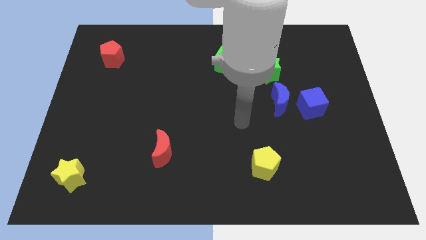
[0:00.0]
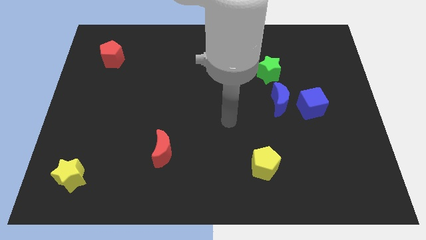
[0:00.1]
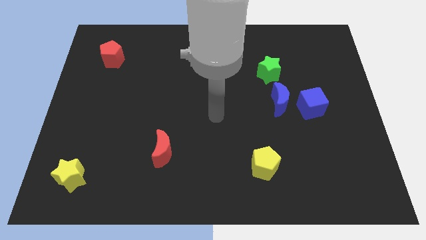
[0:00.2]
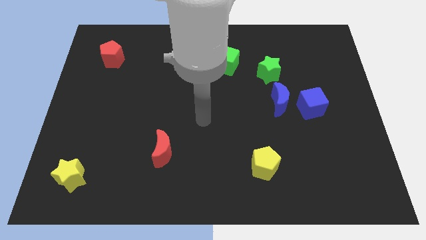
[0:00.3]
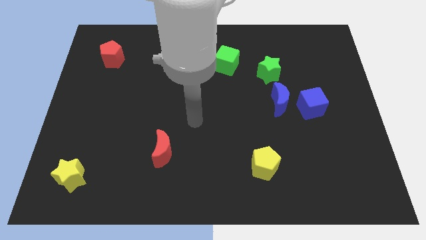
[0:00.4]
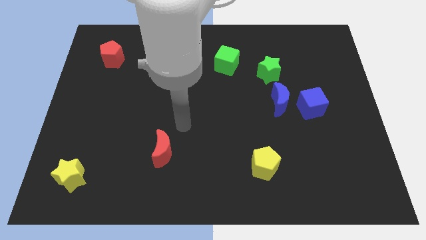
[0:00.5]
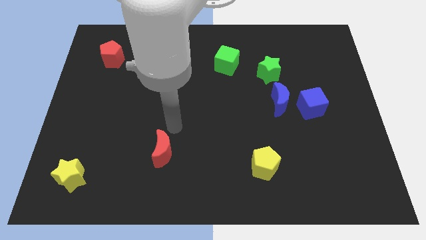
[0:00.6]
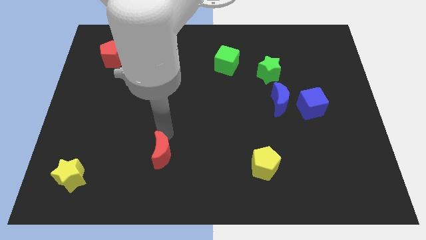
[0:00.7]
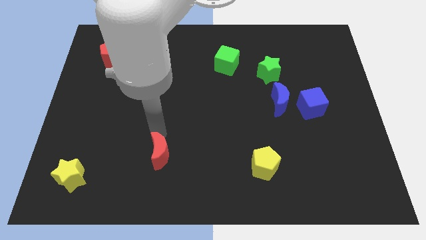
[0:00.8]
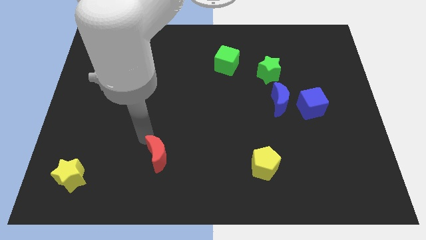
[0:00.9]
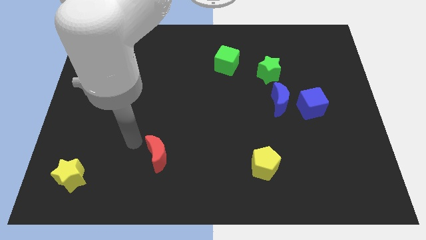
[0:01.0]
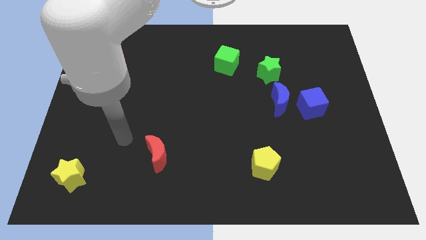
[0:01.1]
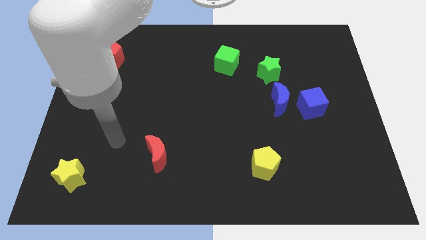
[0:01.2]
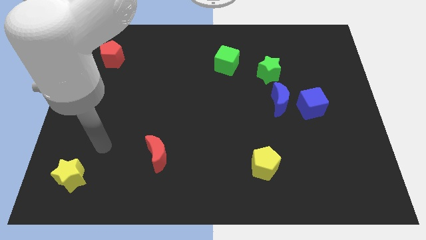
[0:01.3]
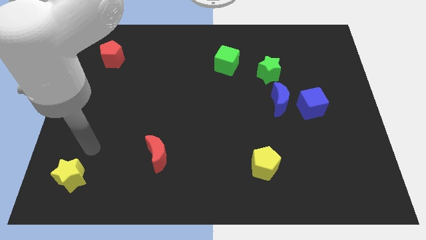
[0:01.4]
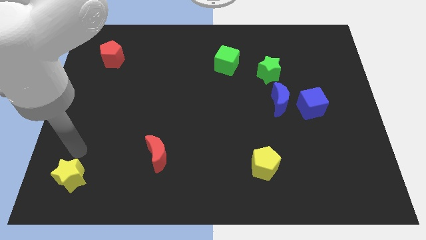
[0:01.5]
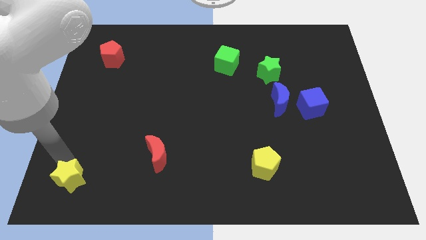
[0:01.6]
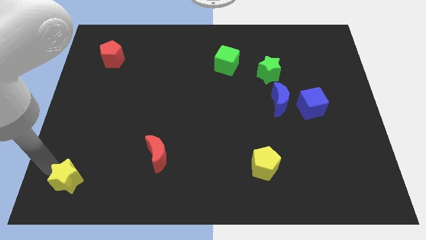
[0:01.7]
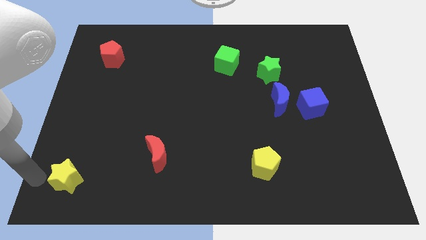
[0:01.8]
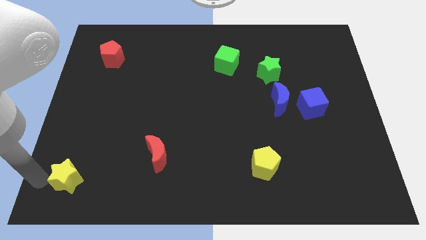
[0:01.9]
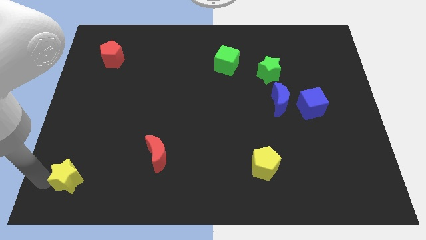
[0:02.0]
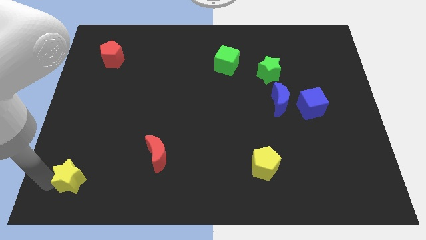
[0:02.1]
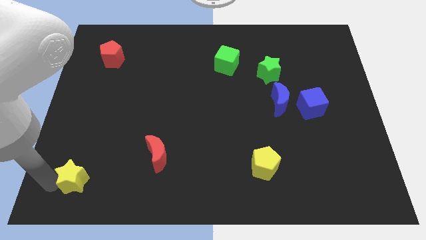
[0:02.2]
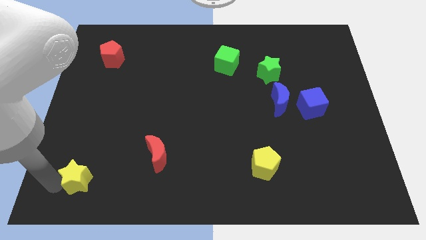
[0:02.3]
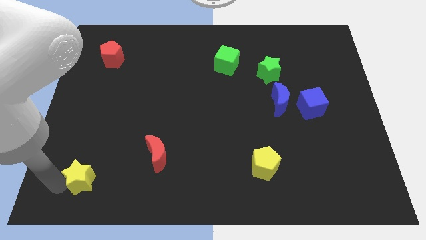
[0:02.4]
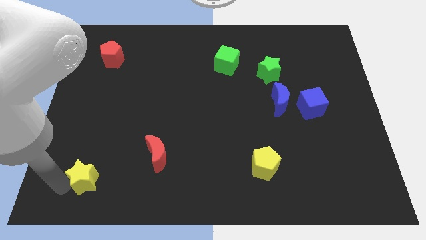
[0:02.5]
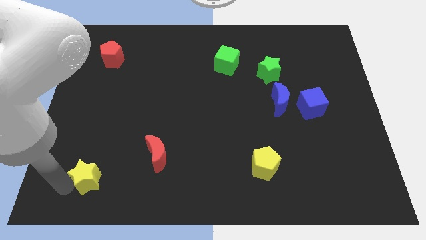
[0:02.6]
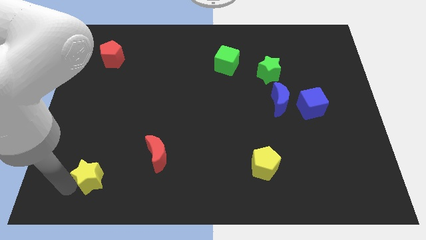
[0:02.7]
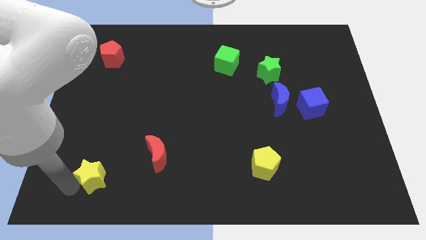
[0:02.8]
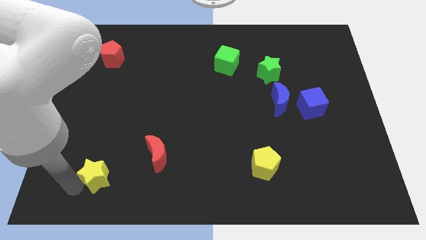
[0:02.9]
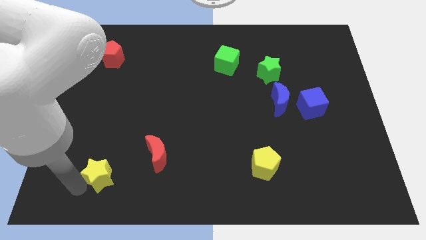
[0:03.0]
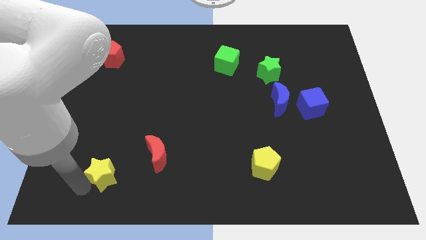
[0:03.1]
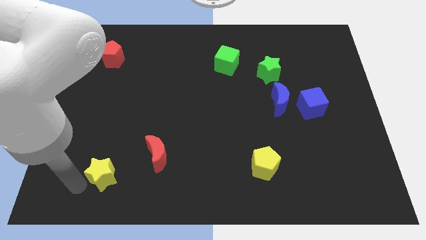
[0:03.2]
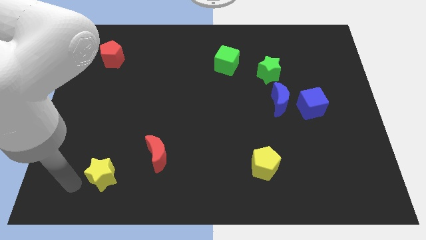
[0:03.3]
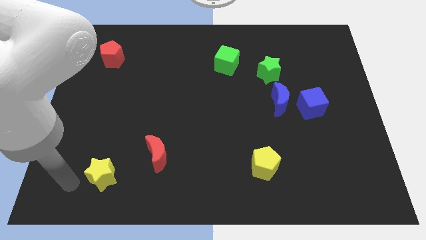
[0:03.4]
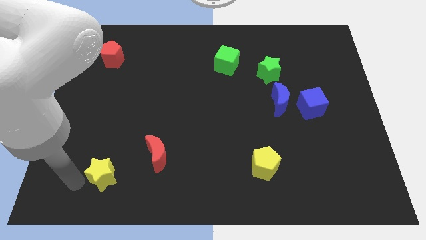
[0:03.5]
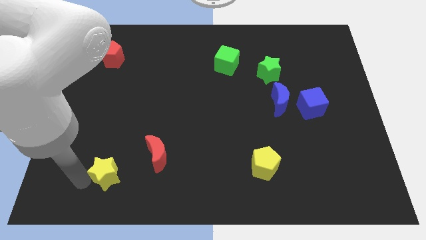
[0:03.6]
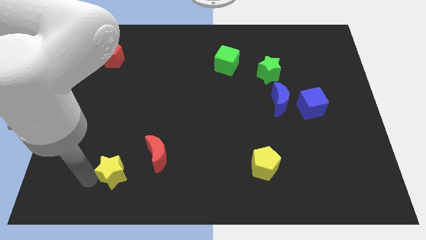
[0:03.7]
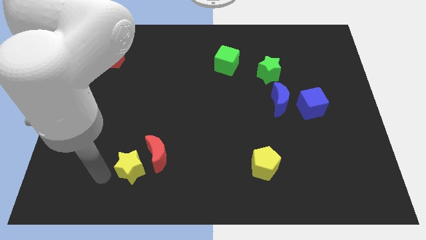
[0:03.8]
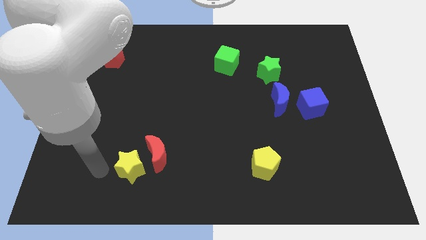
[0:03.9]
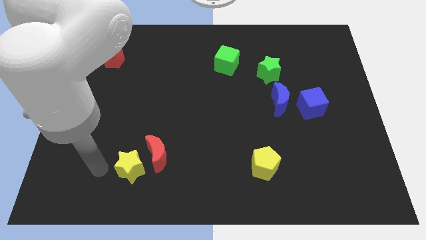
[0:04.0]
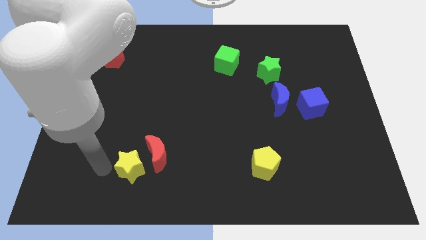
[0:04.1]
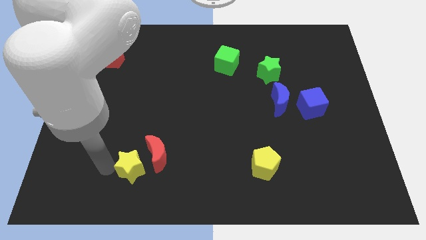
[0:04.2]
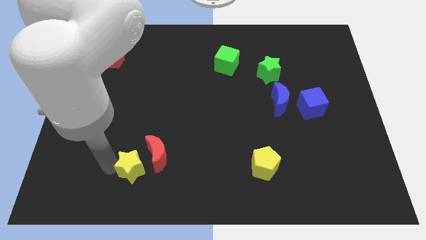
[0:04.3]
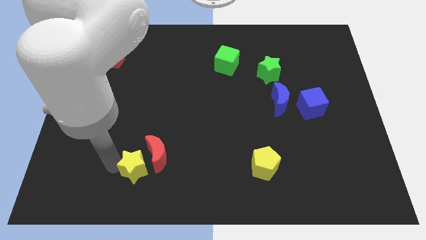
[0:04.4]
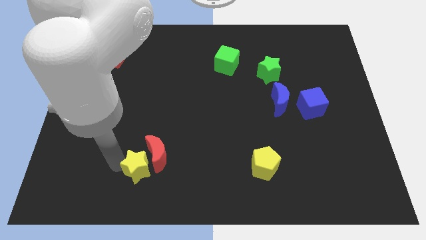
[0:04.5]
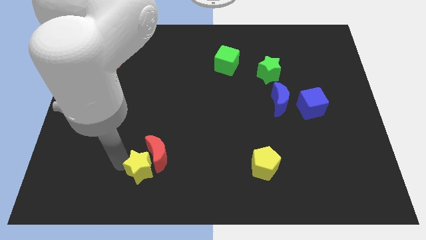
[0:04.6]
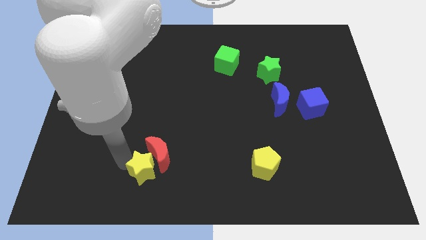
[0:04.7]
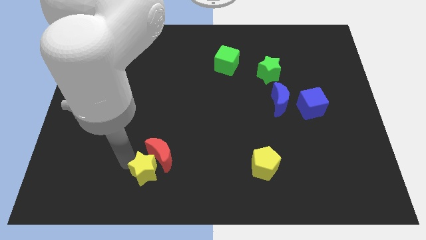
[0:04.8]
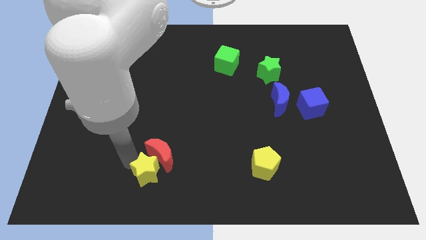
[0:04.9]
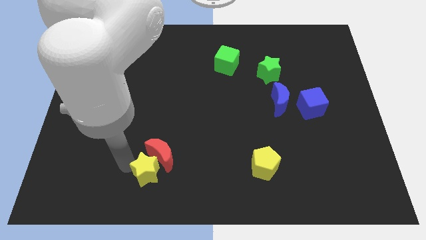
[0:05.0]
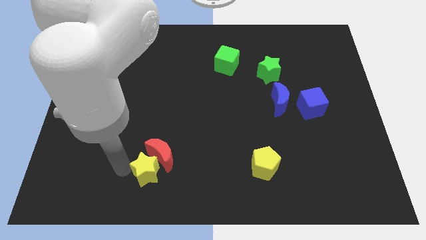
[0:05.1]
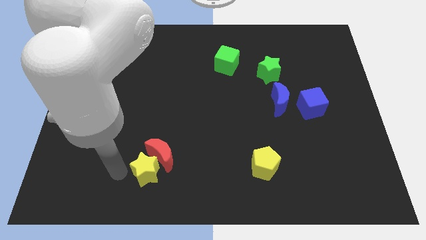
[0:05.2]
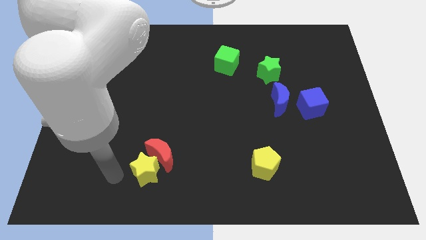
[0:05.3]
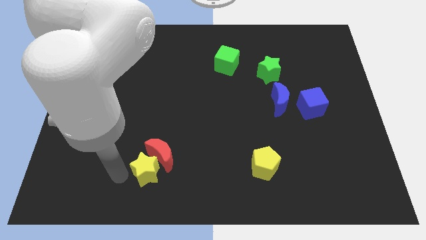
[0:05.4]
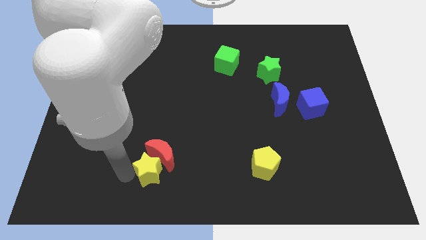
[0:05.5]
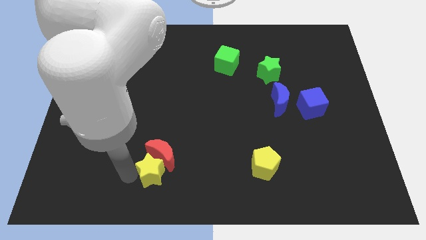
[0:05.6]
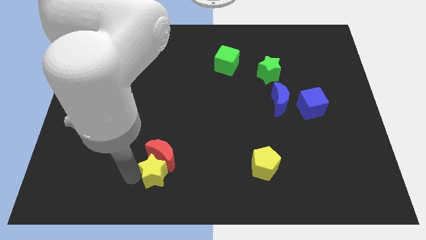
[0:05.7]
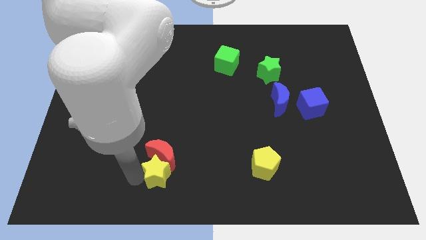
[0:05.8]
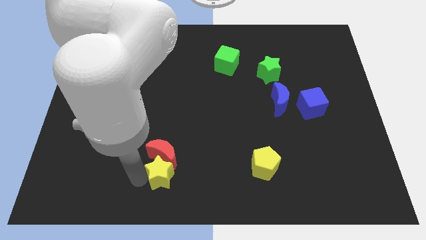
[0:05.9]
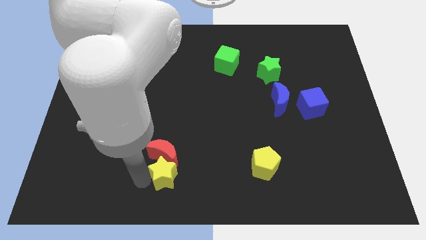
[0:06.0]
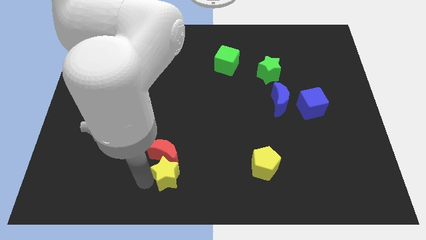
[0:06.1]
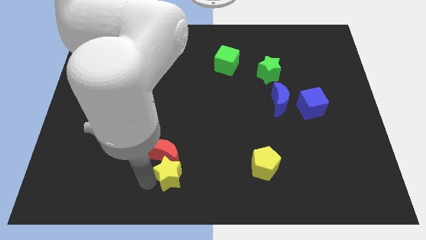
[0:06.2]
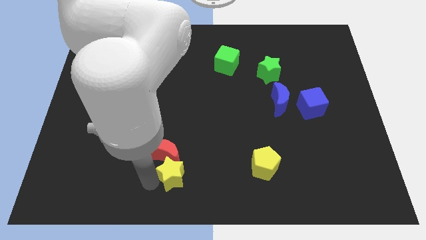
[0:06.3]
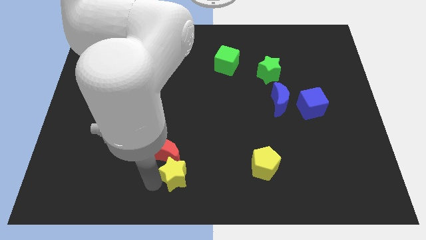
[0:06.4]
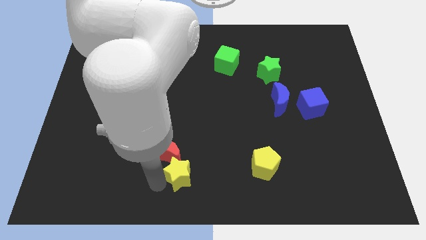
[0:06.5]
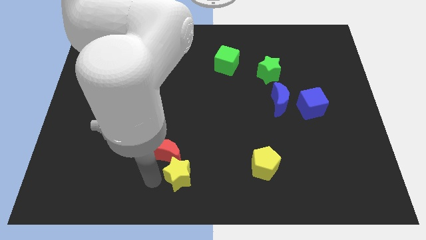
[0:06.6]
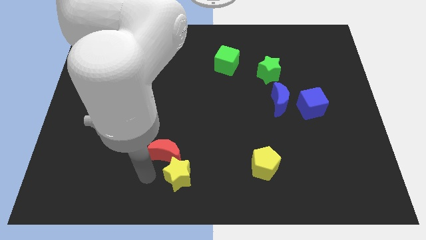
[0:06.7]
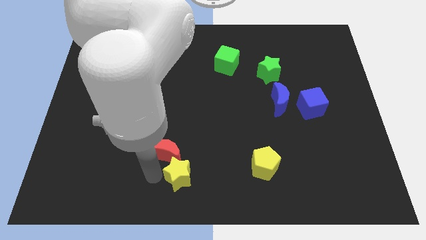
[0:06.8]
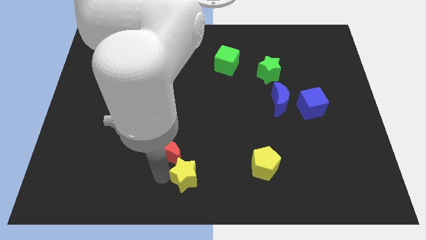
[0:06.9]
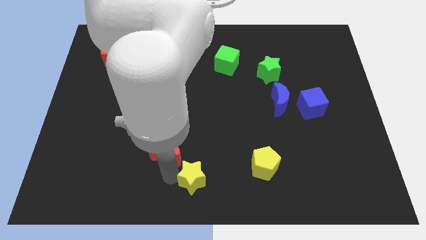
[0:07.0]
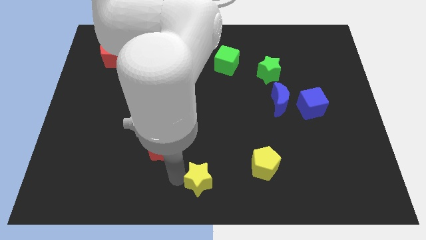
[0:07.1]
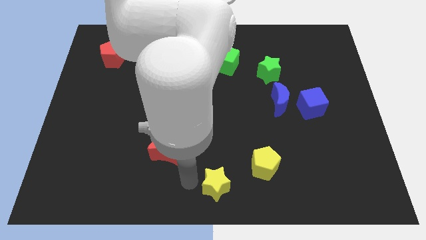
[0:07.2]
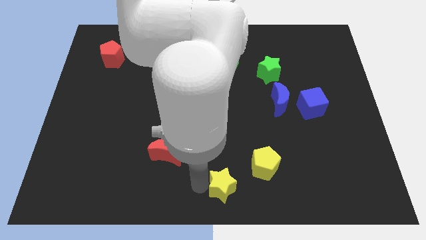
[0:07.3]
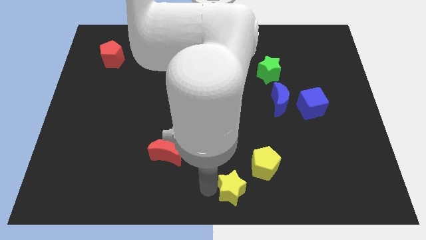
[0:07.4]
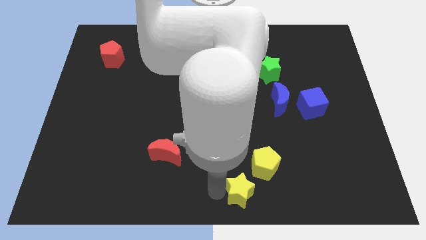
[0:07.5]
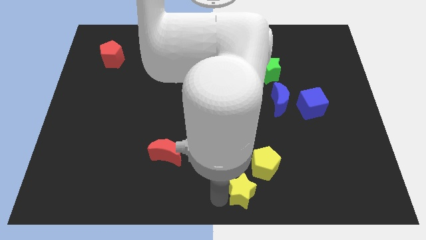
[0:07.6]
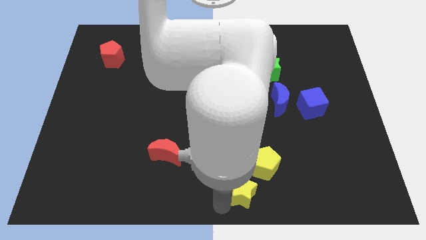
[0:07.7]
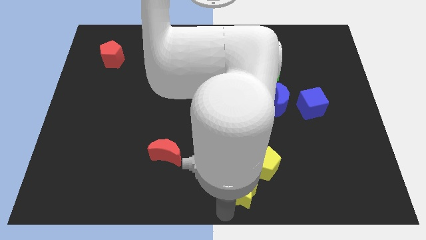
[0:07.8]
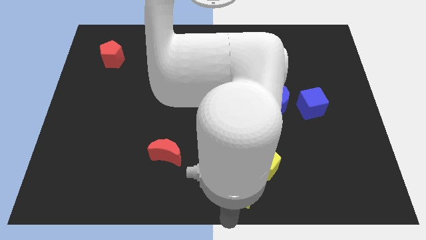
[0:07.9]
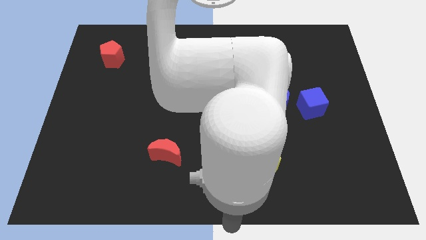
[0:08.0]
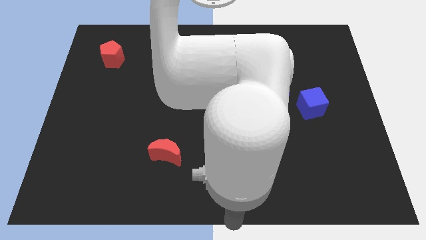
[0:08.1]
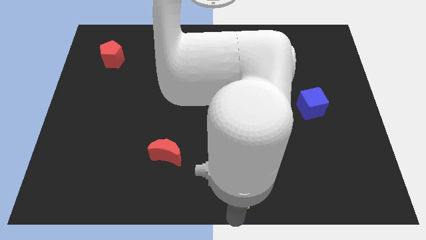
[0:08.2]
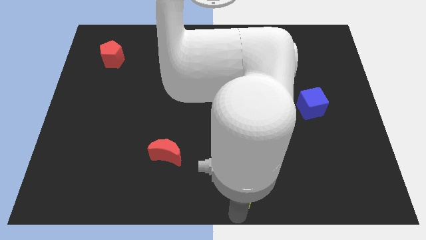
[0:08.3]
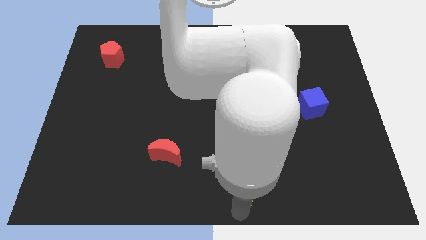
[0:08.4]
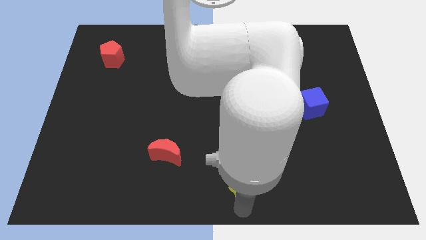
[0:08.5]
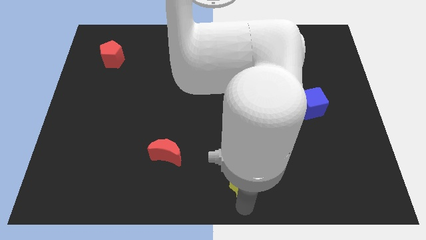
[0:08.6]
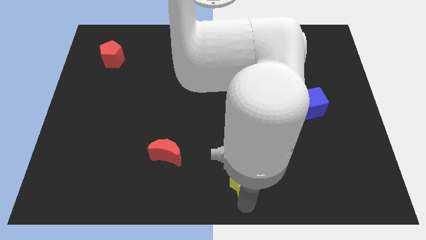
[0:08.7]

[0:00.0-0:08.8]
slide the yellow star close to the yellow pentagon
